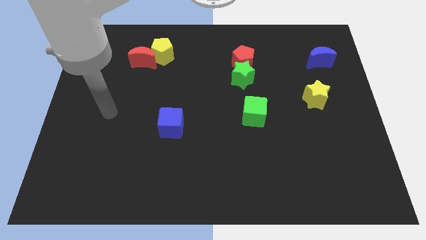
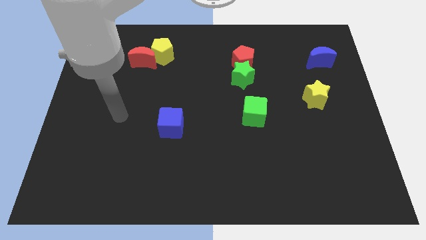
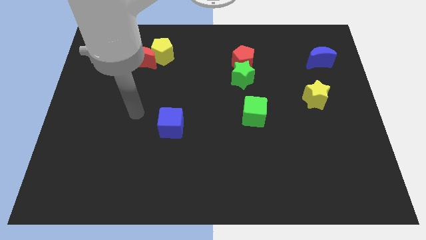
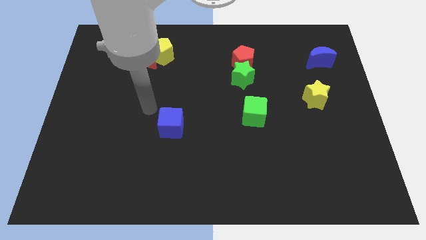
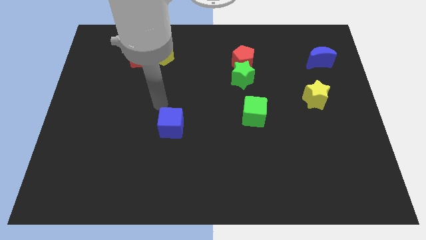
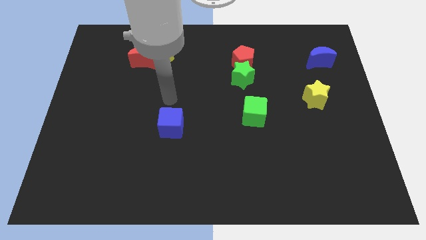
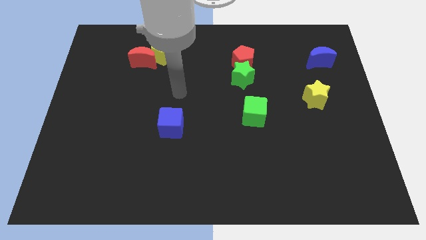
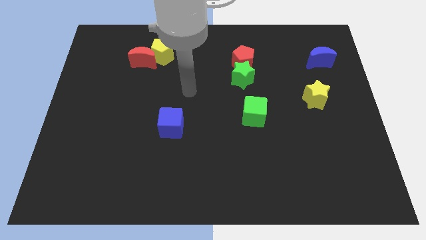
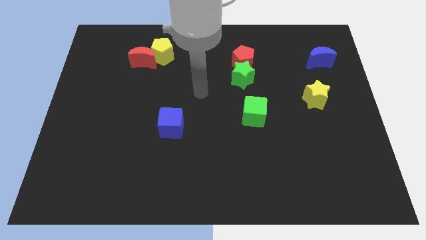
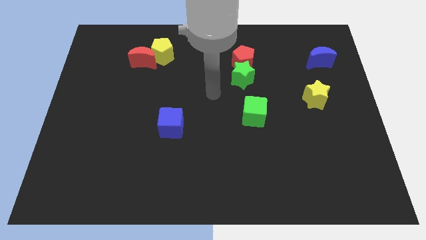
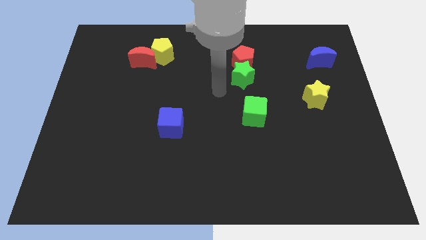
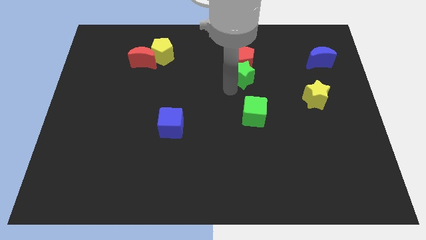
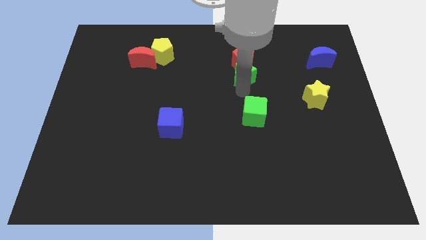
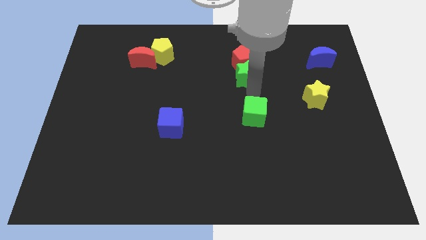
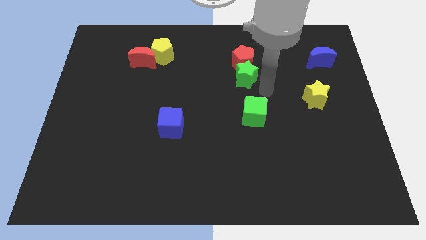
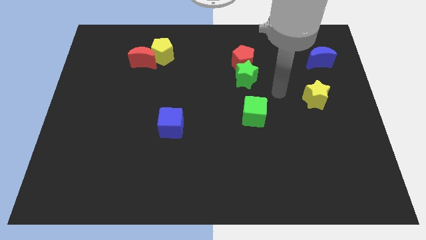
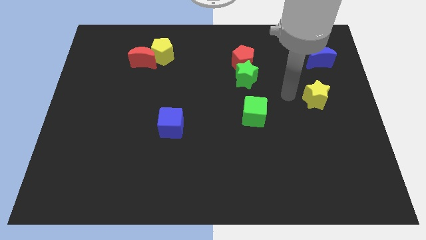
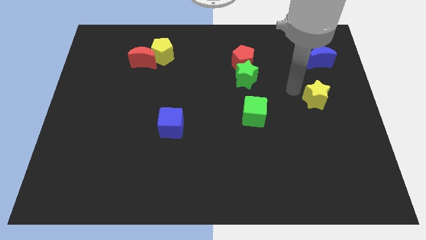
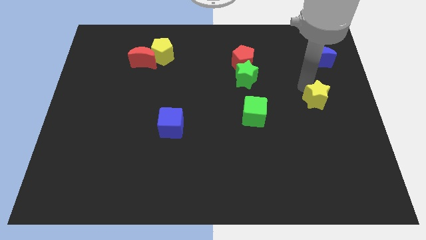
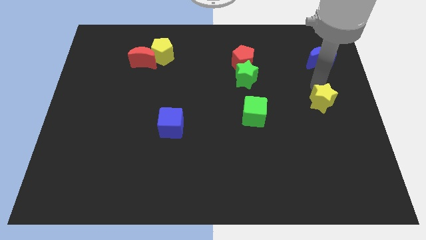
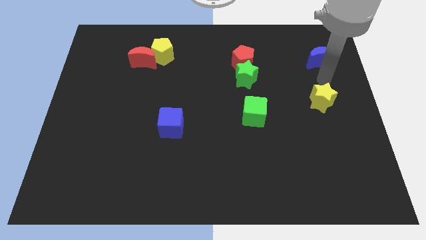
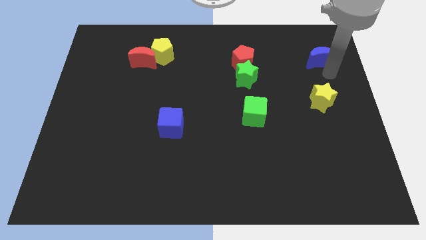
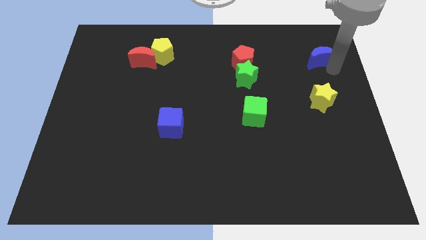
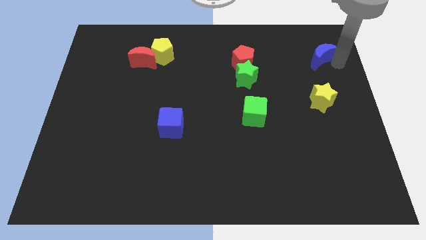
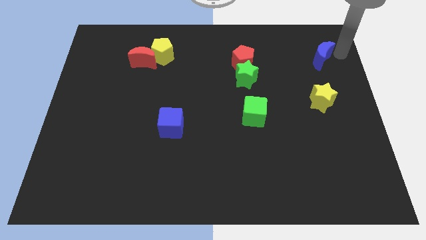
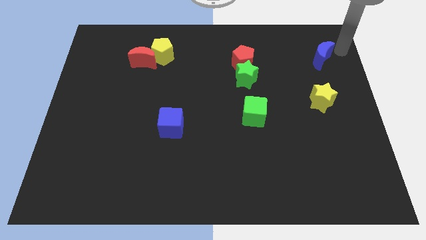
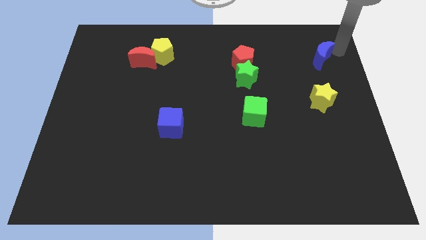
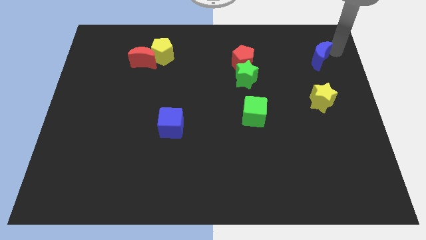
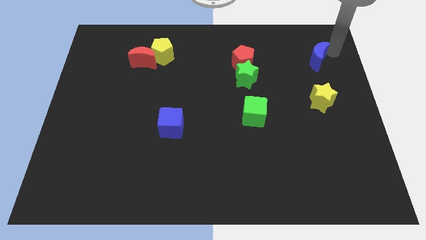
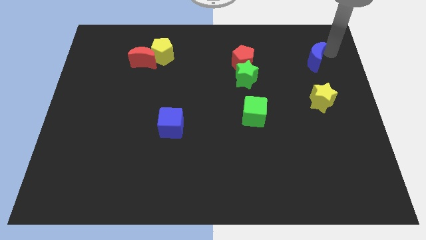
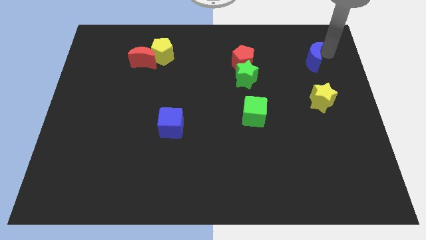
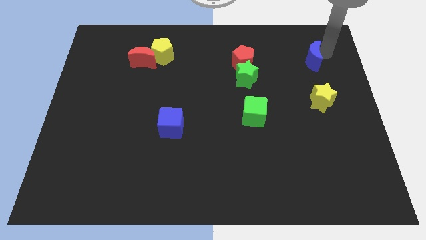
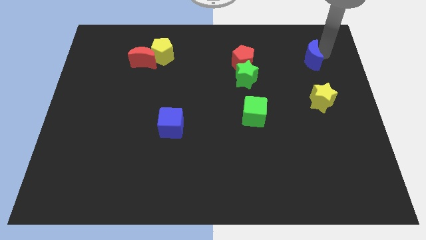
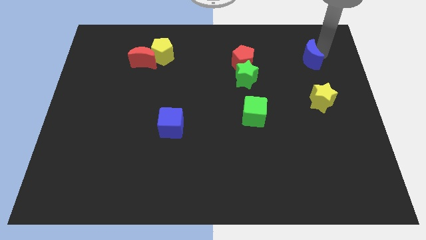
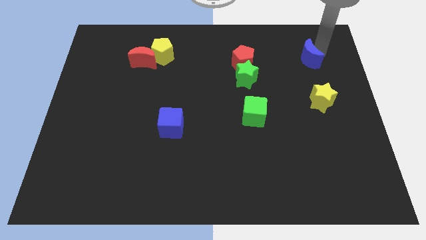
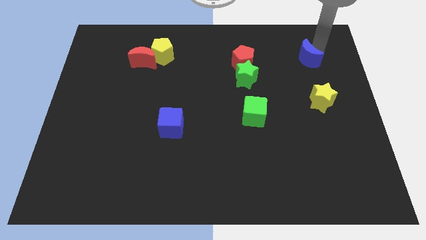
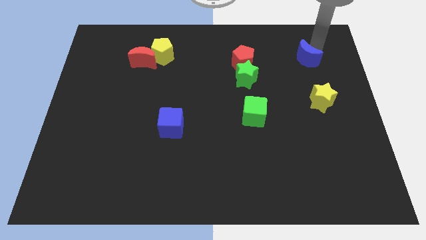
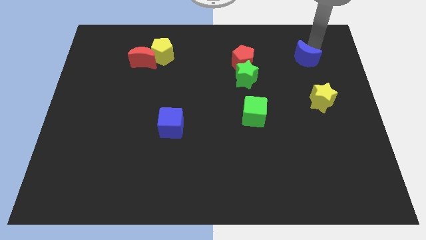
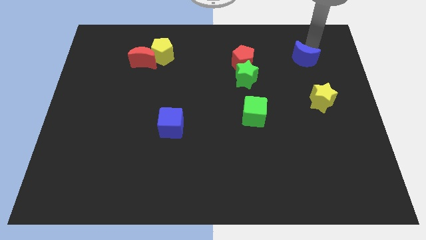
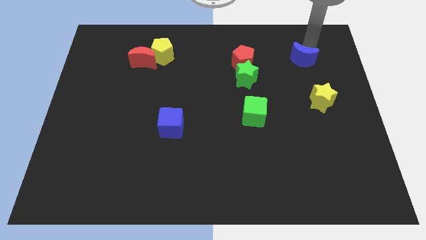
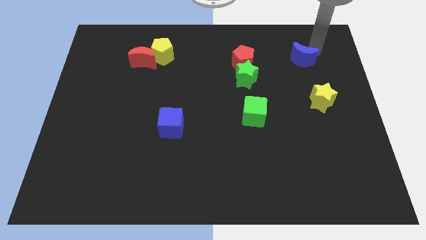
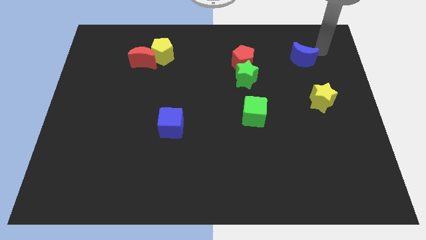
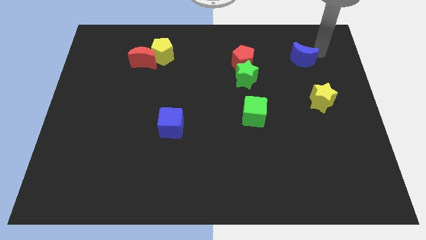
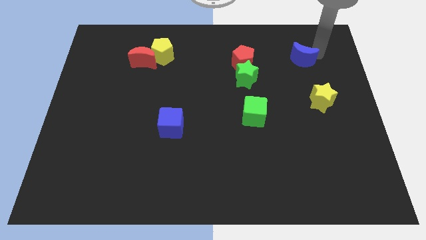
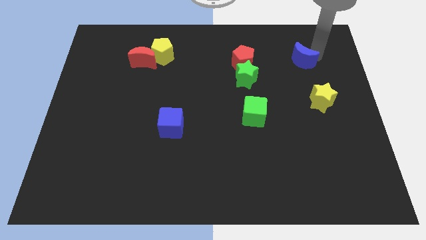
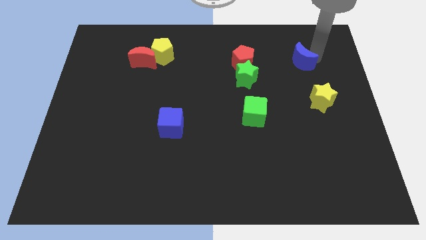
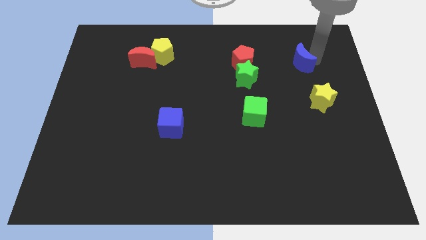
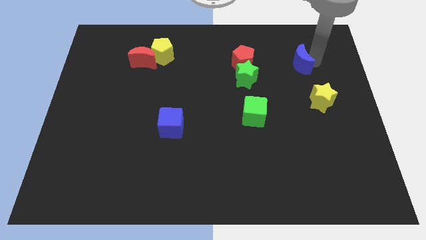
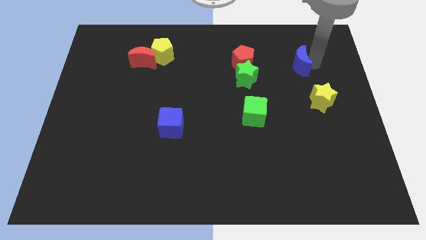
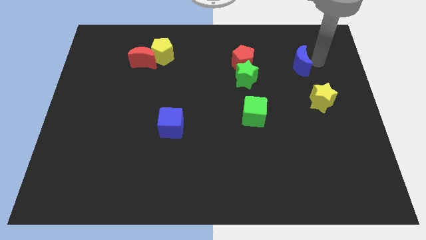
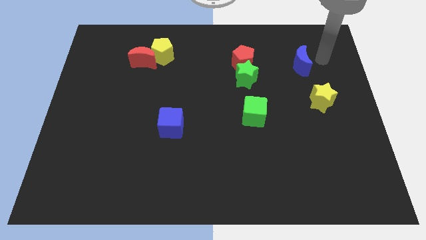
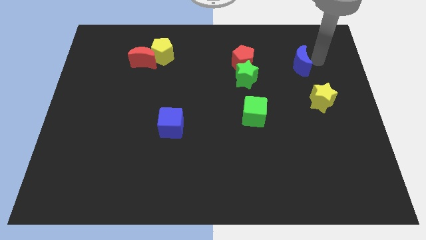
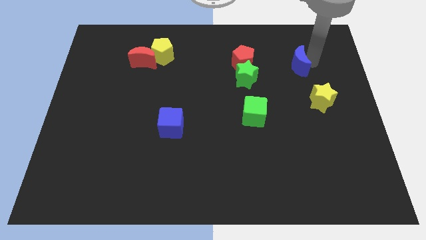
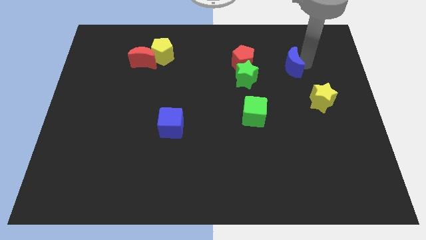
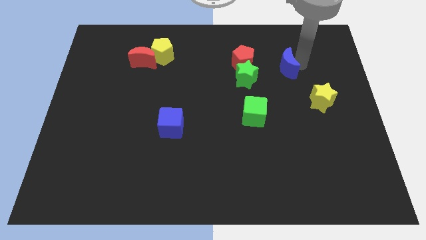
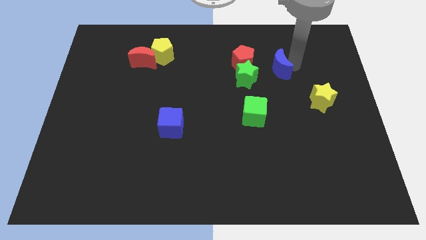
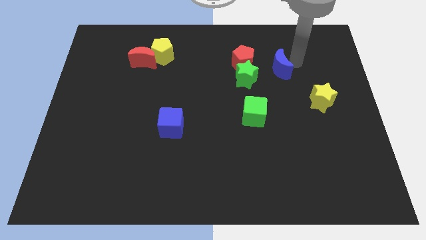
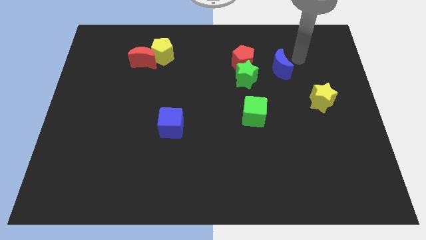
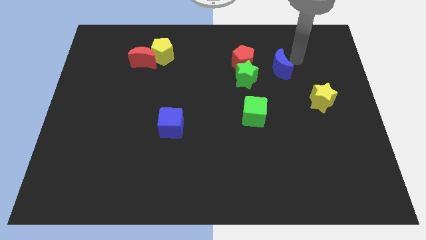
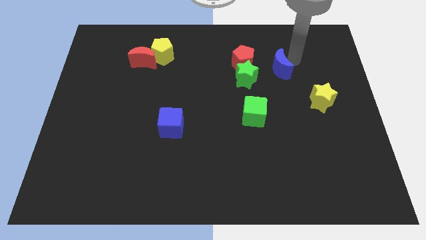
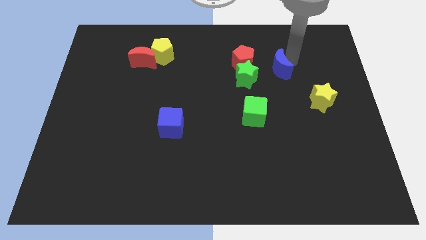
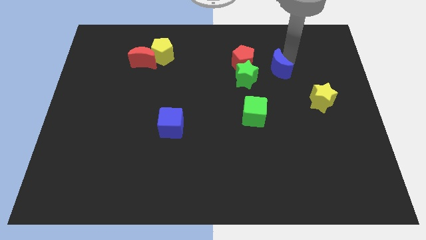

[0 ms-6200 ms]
put the blue moon to the bottom right of the red pentagon

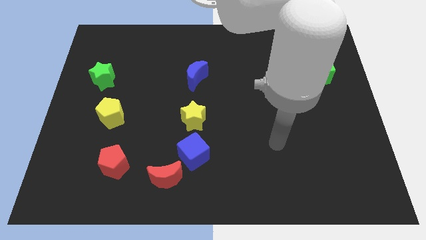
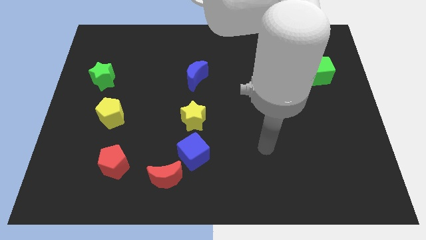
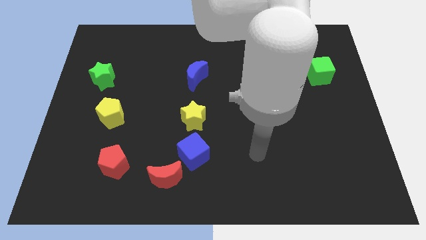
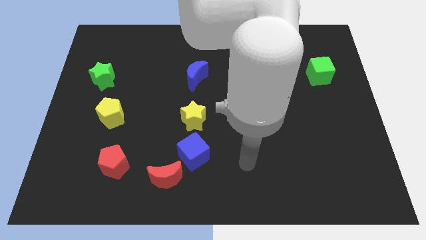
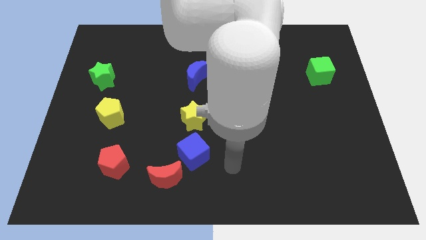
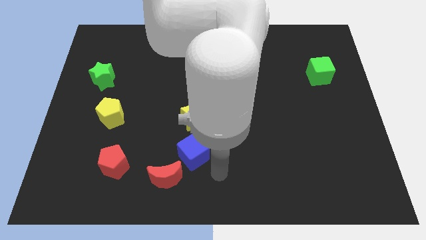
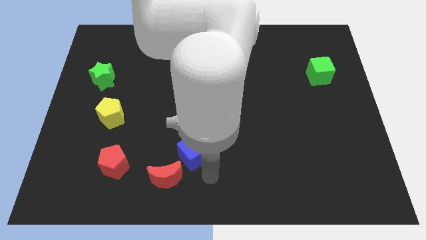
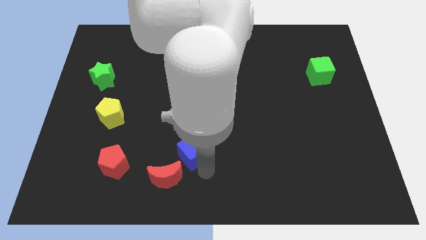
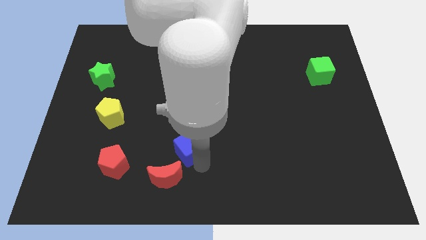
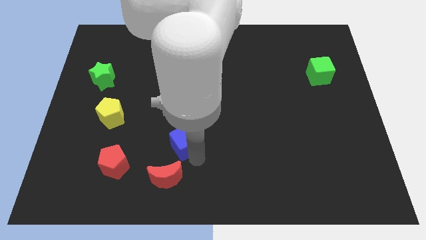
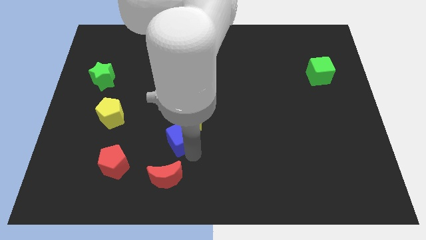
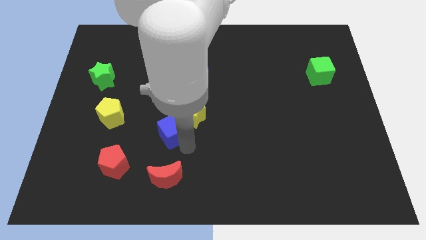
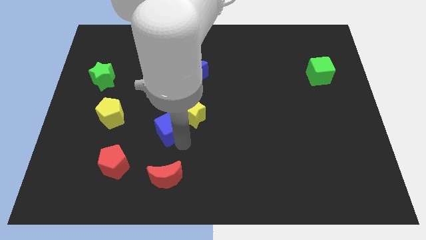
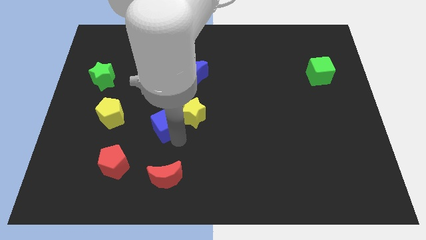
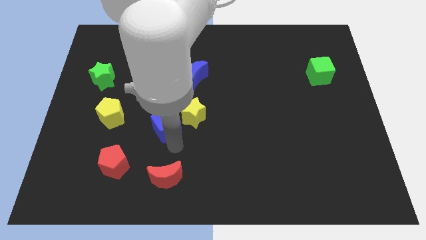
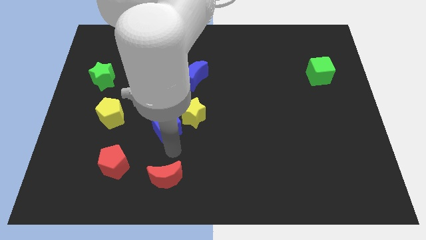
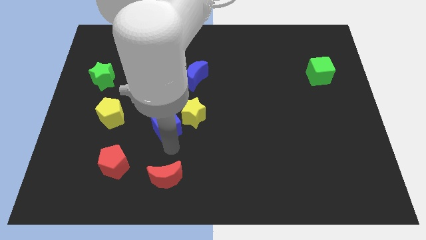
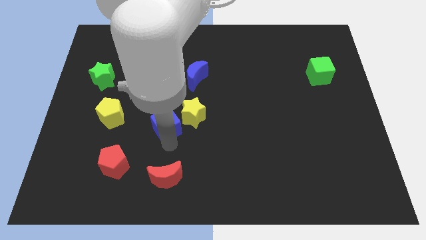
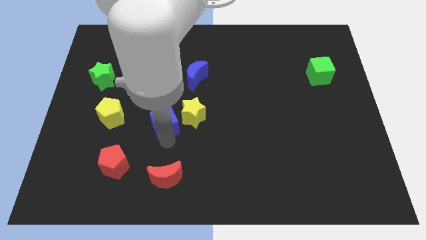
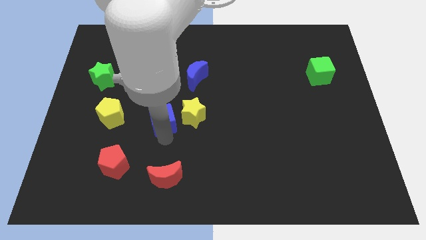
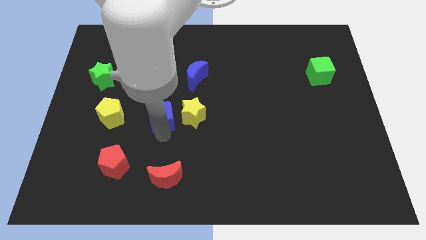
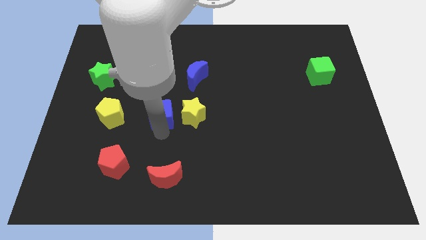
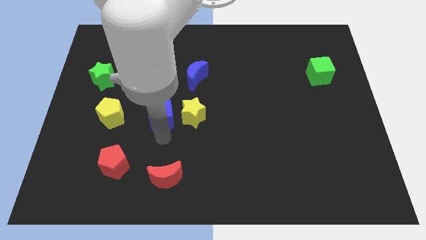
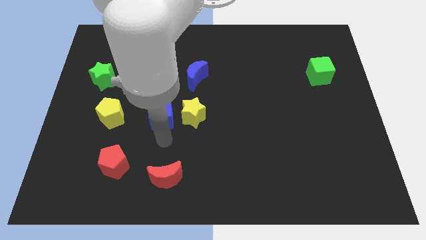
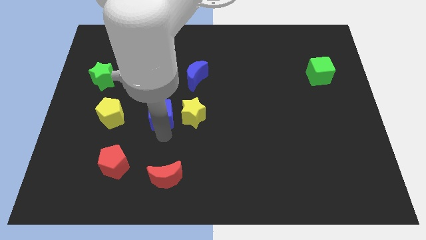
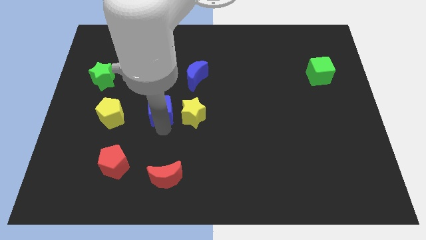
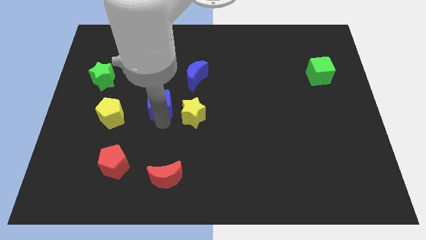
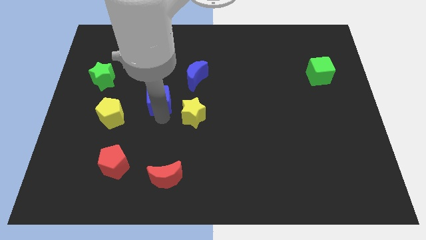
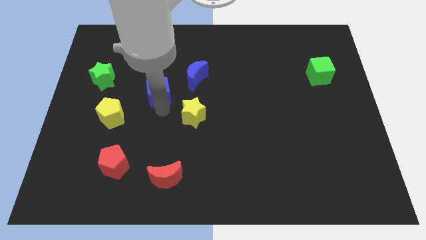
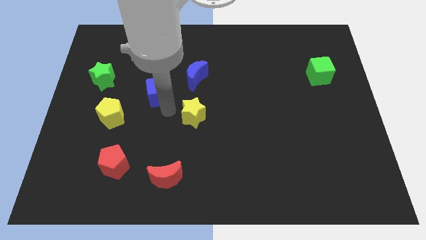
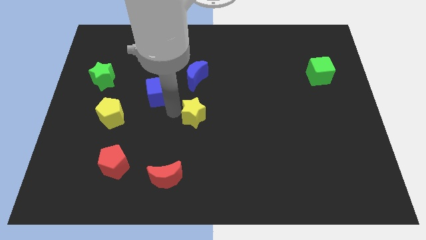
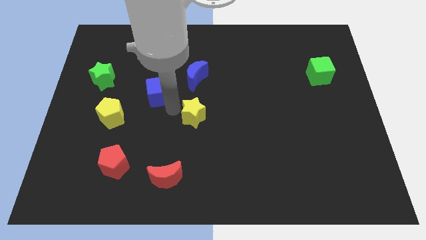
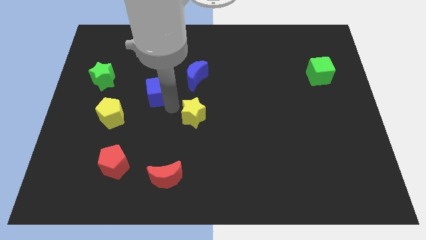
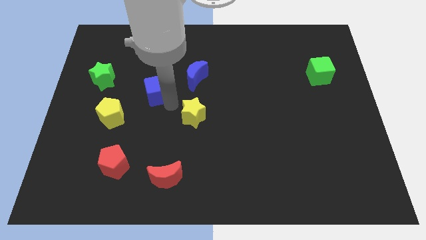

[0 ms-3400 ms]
put the blue cube to the right side of the green star
